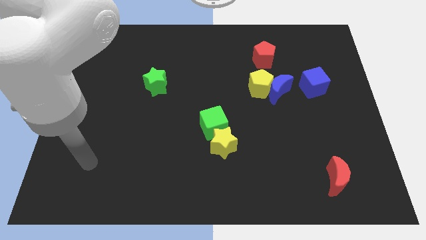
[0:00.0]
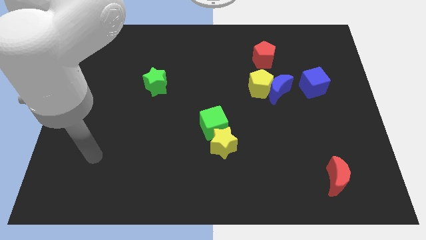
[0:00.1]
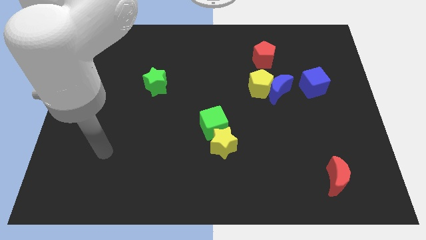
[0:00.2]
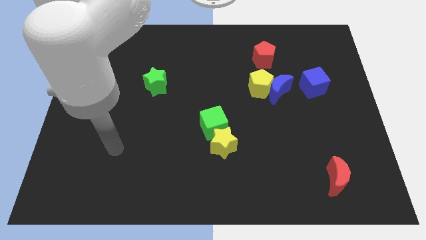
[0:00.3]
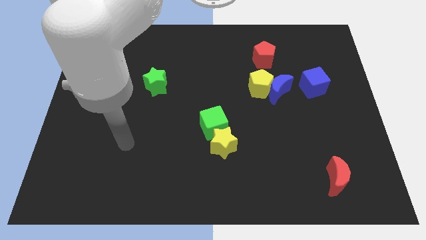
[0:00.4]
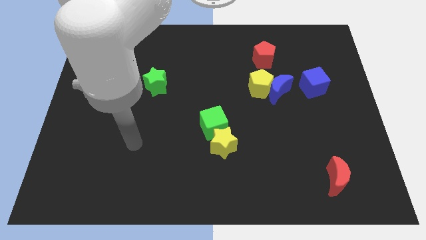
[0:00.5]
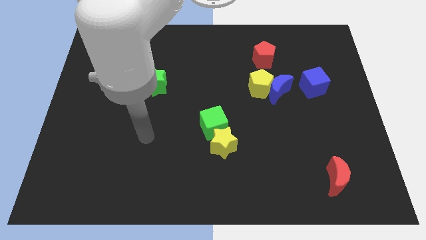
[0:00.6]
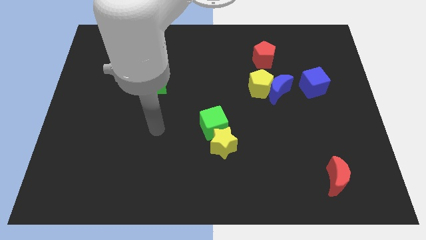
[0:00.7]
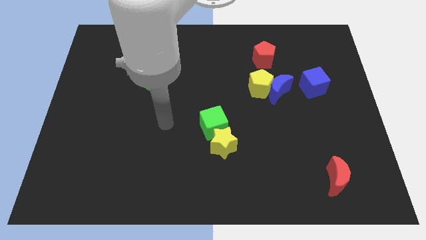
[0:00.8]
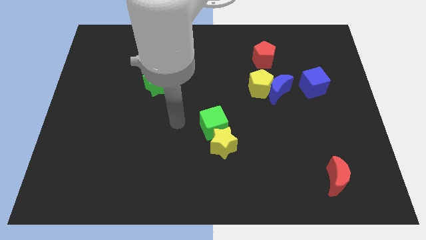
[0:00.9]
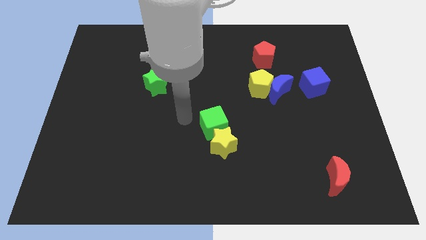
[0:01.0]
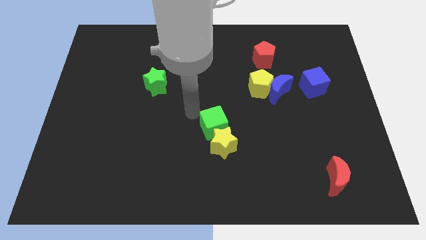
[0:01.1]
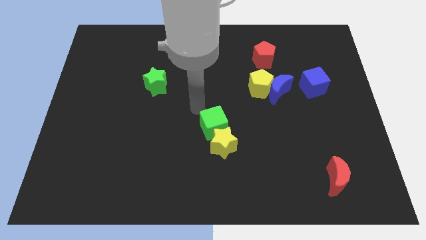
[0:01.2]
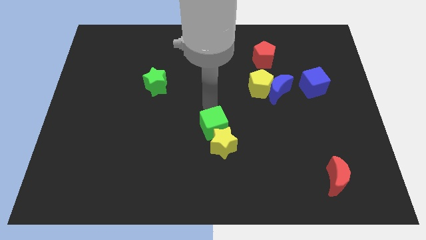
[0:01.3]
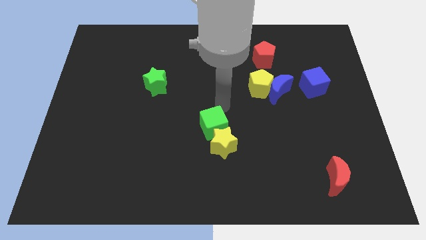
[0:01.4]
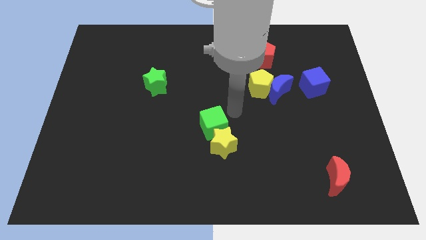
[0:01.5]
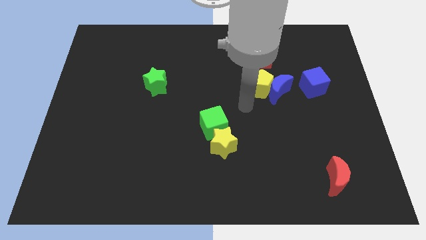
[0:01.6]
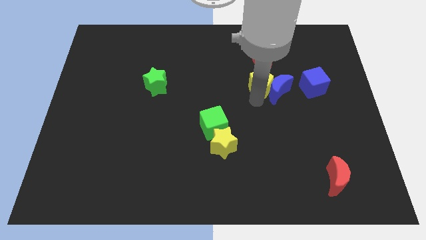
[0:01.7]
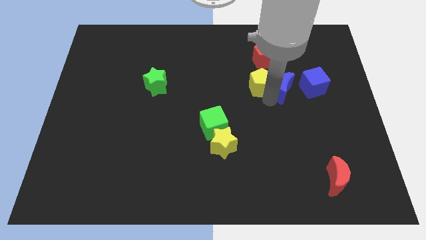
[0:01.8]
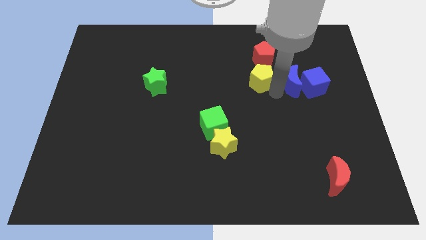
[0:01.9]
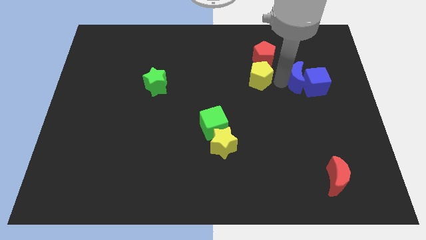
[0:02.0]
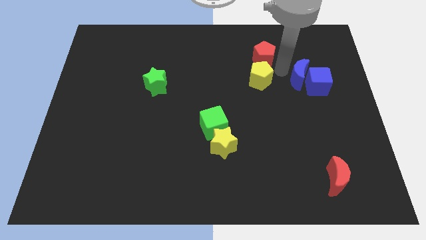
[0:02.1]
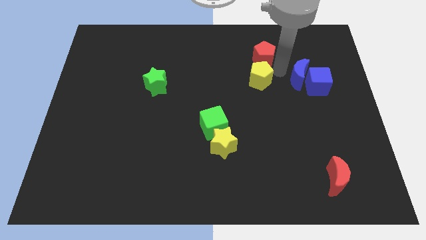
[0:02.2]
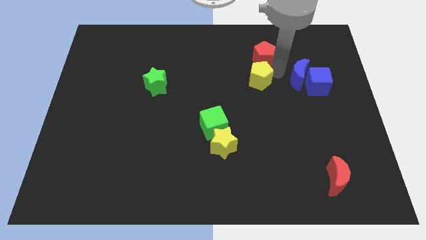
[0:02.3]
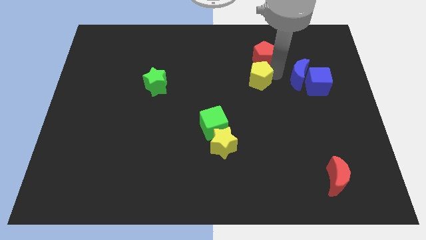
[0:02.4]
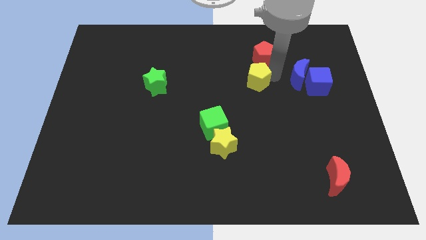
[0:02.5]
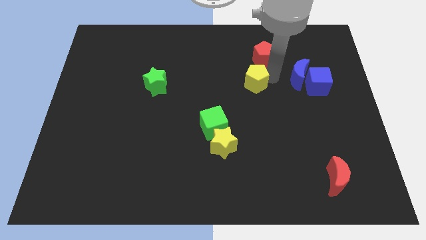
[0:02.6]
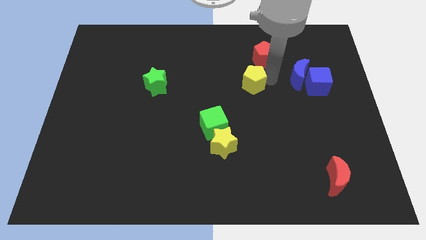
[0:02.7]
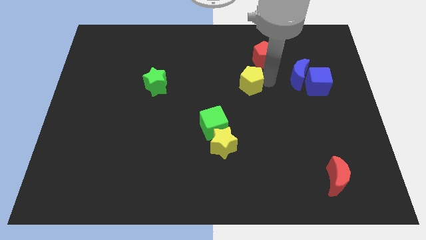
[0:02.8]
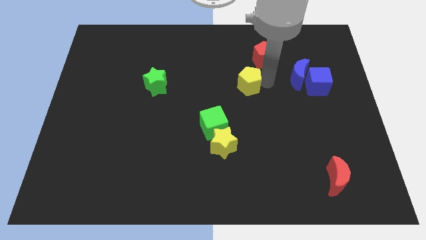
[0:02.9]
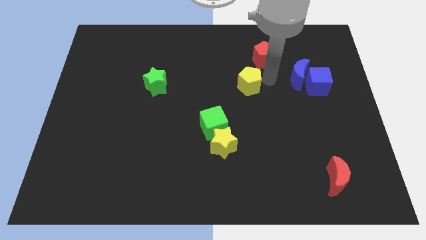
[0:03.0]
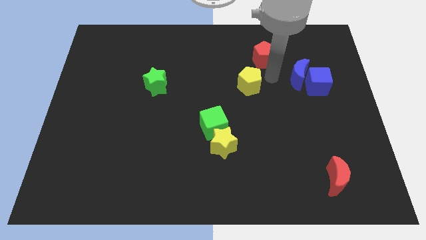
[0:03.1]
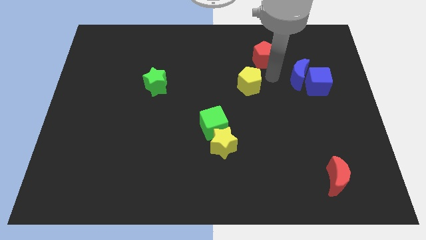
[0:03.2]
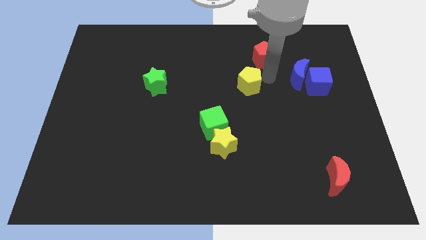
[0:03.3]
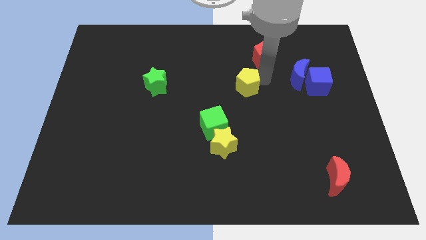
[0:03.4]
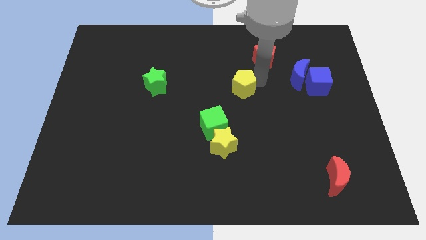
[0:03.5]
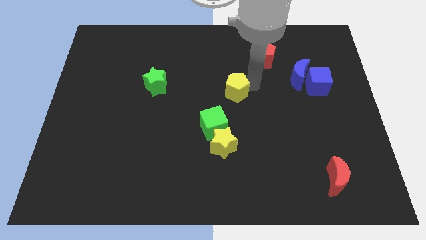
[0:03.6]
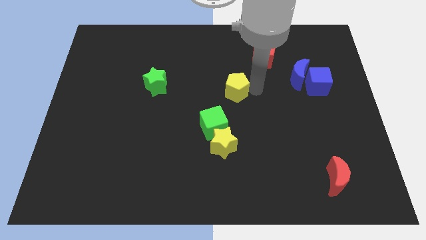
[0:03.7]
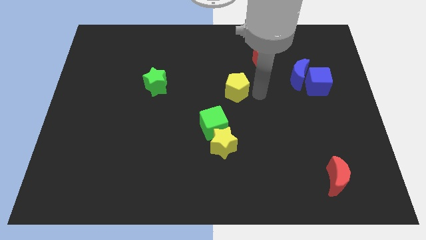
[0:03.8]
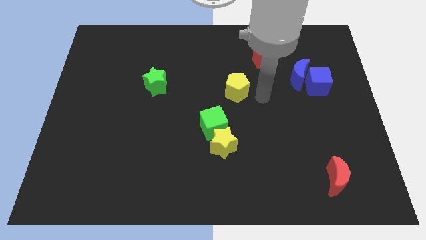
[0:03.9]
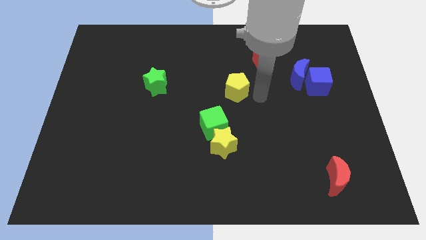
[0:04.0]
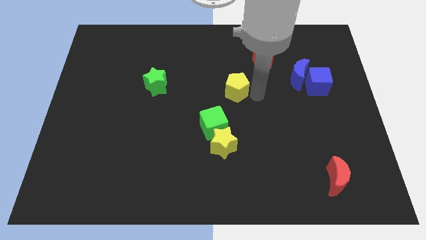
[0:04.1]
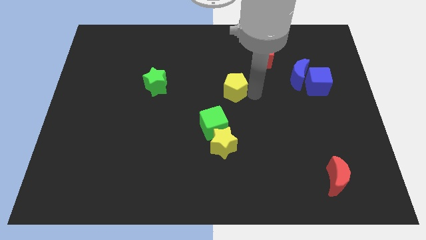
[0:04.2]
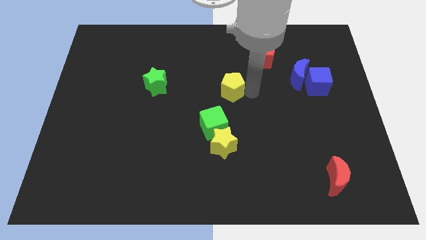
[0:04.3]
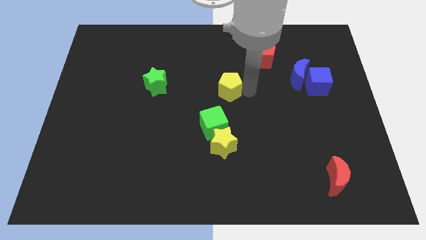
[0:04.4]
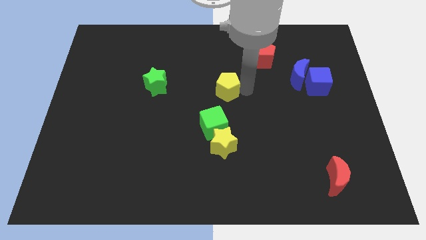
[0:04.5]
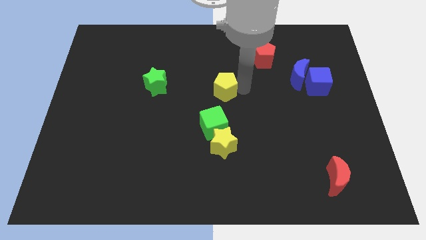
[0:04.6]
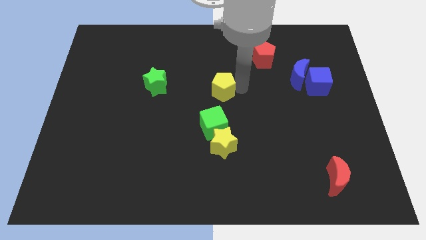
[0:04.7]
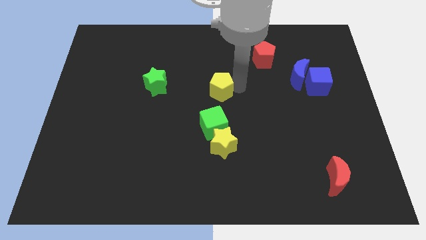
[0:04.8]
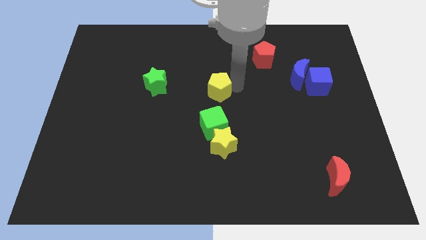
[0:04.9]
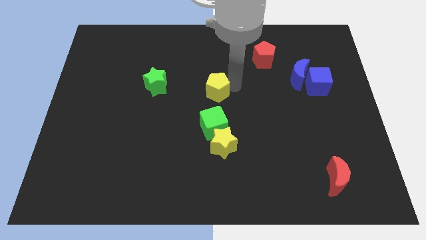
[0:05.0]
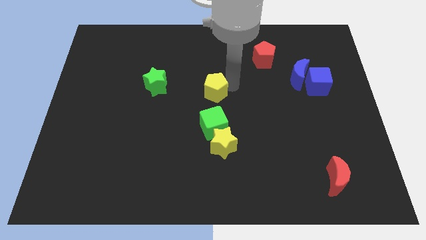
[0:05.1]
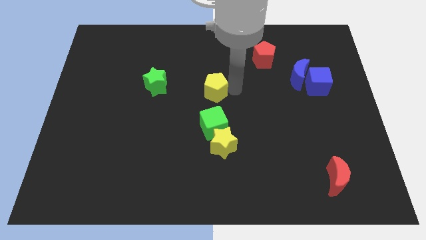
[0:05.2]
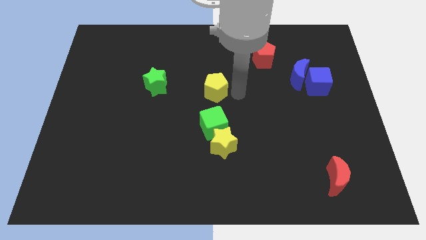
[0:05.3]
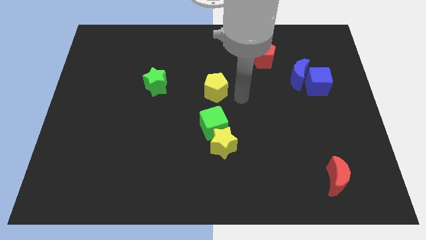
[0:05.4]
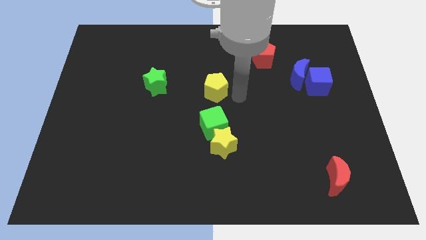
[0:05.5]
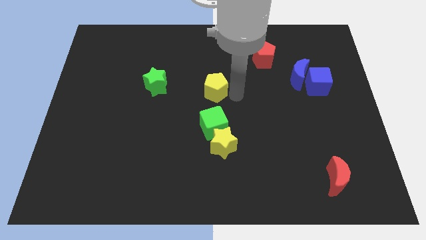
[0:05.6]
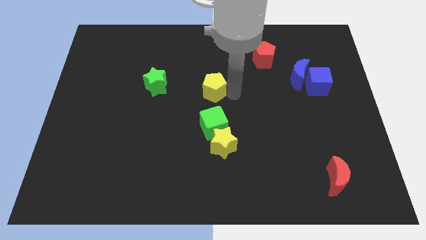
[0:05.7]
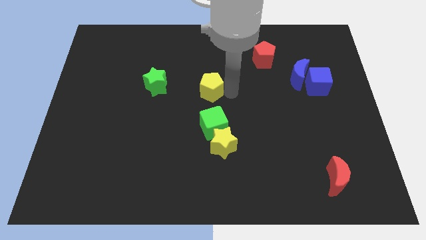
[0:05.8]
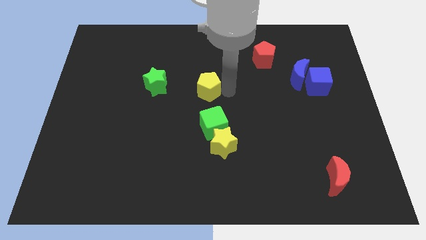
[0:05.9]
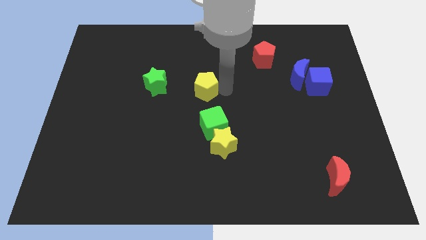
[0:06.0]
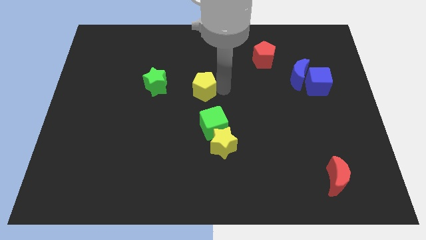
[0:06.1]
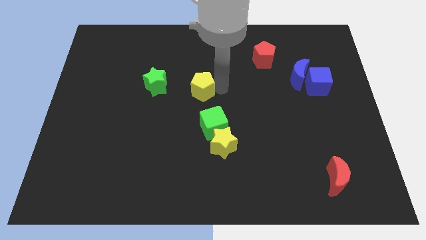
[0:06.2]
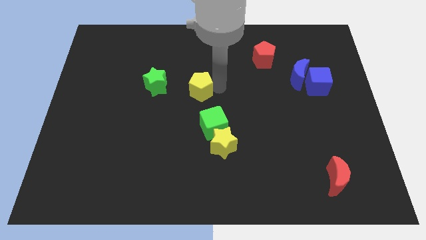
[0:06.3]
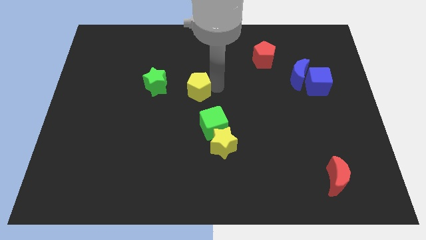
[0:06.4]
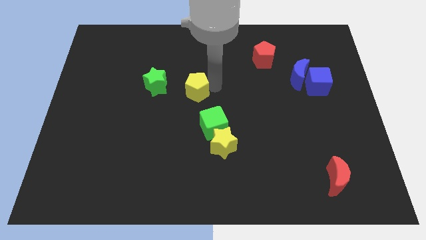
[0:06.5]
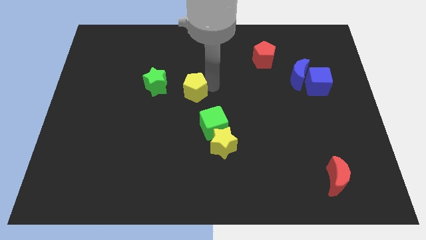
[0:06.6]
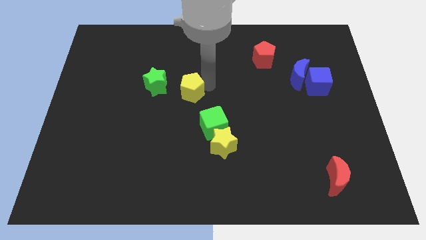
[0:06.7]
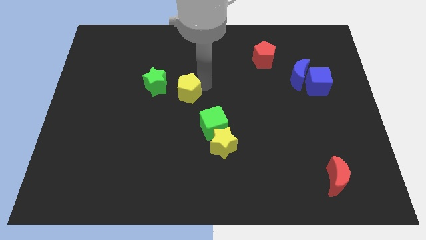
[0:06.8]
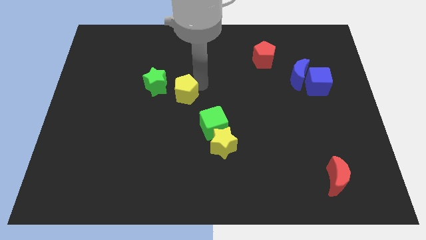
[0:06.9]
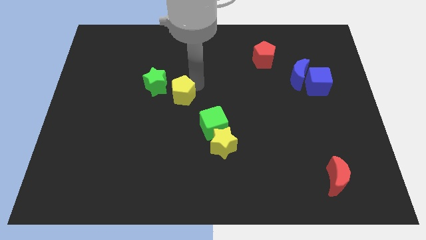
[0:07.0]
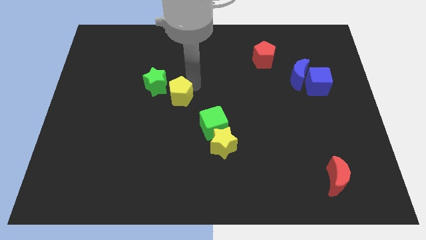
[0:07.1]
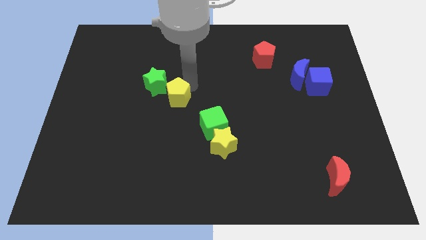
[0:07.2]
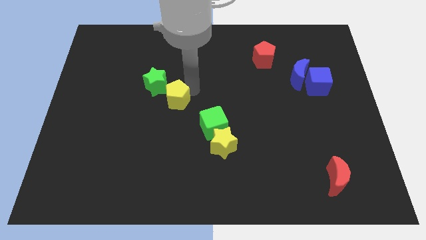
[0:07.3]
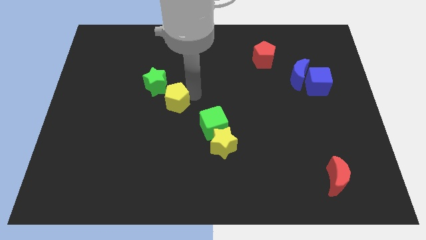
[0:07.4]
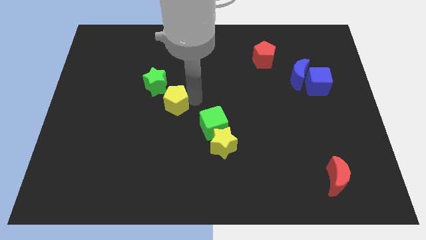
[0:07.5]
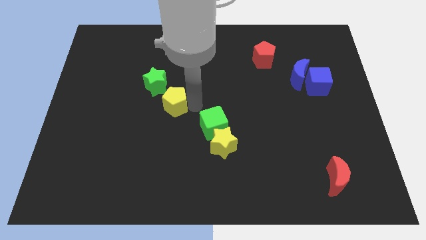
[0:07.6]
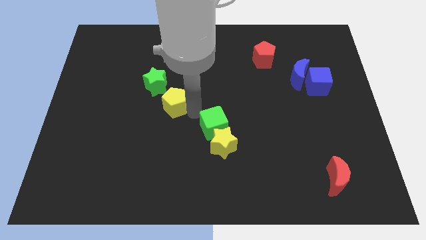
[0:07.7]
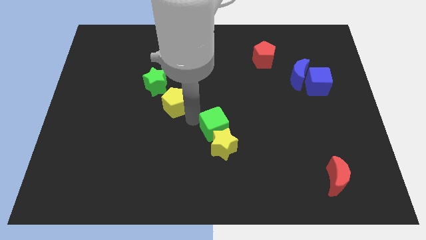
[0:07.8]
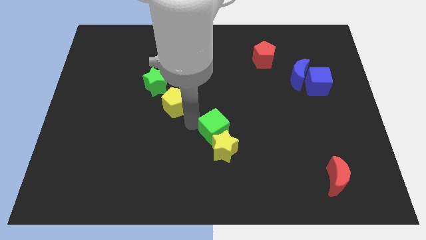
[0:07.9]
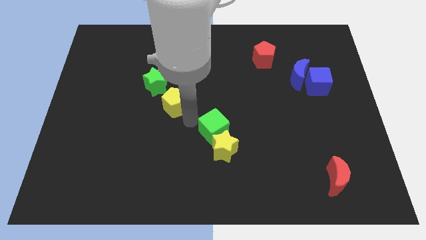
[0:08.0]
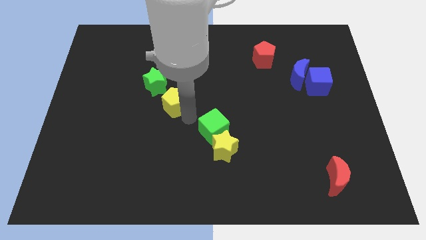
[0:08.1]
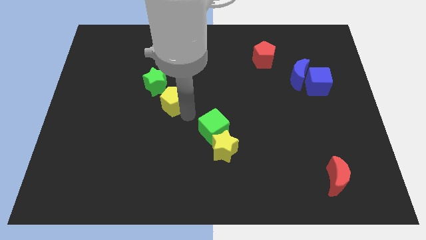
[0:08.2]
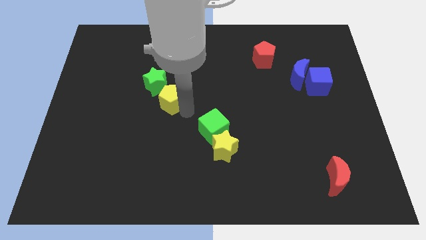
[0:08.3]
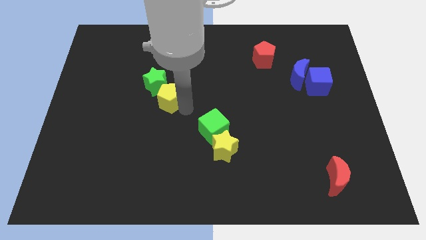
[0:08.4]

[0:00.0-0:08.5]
move the yellow pentagon to the green star
